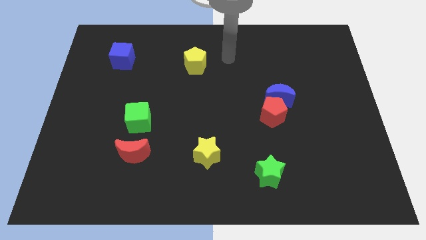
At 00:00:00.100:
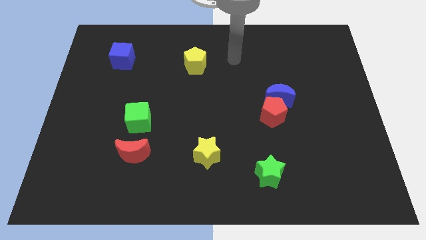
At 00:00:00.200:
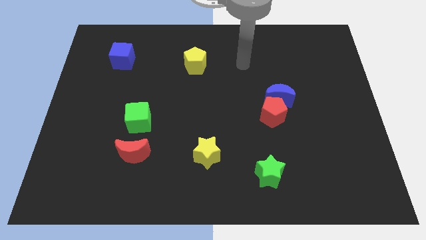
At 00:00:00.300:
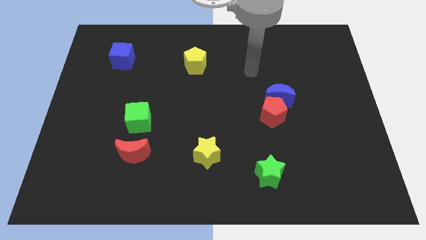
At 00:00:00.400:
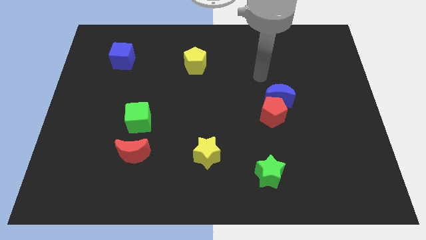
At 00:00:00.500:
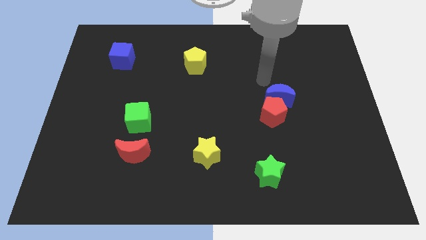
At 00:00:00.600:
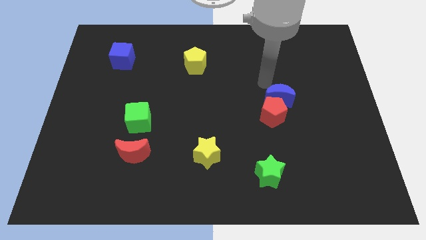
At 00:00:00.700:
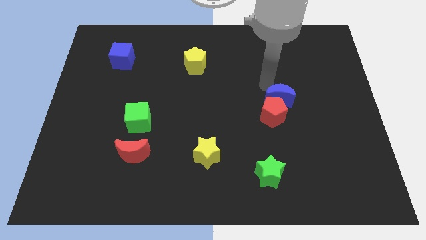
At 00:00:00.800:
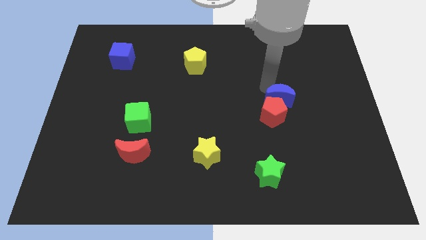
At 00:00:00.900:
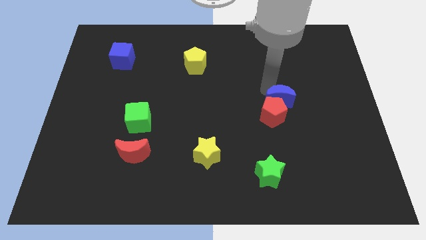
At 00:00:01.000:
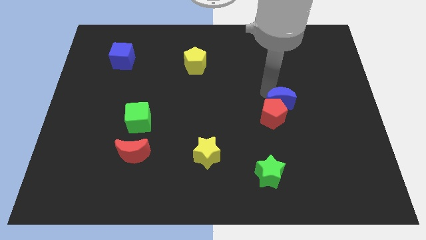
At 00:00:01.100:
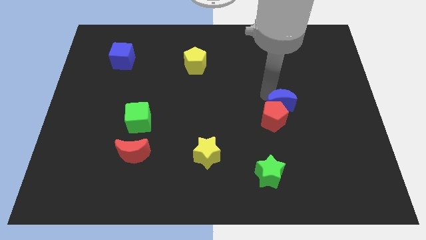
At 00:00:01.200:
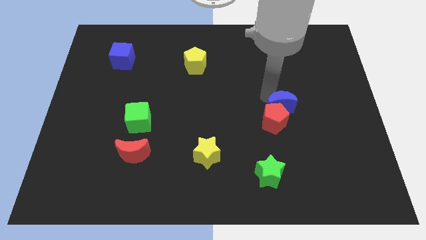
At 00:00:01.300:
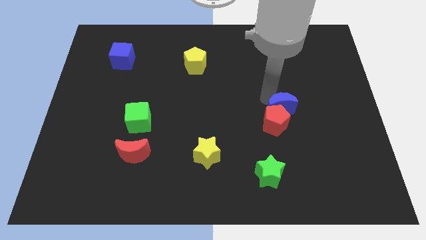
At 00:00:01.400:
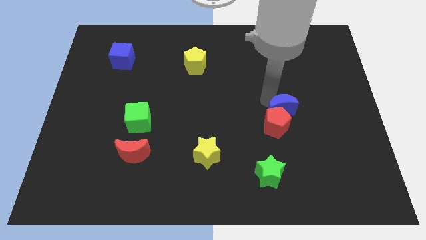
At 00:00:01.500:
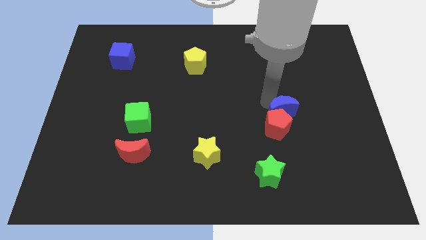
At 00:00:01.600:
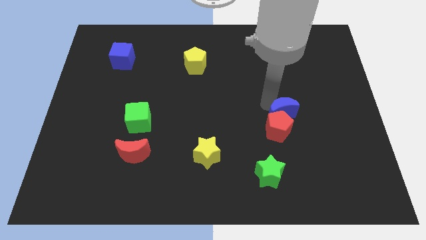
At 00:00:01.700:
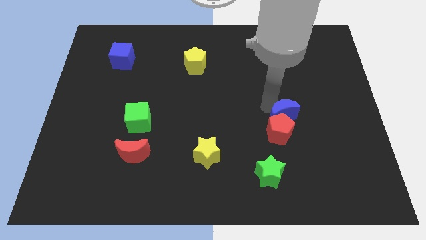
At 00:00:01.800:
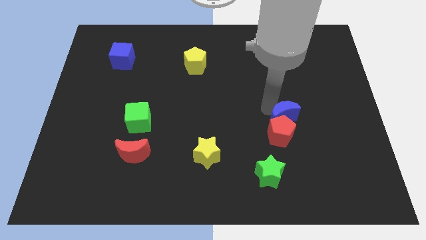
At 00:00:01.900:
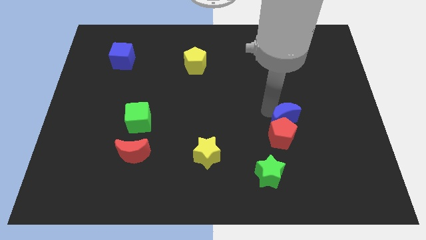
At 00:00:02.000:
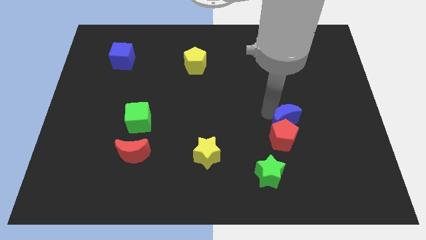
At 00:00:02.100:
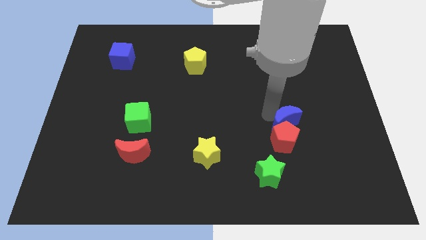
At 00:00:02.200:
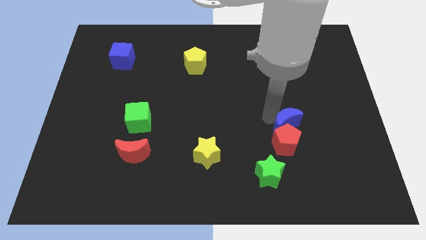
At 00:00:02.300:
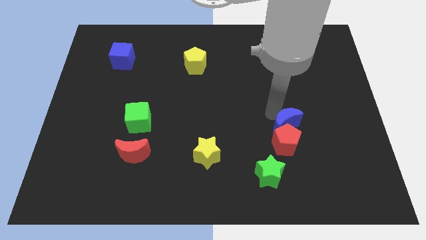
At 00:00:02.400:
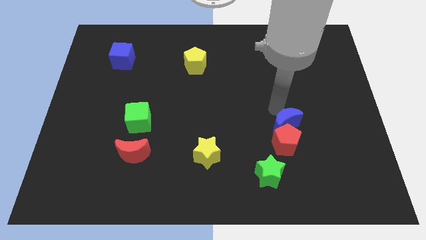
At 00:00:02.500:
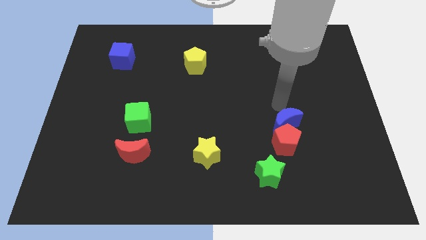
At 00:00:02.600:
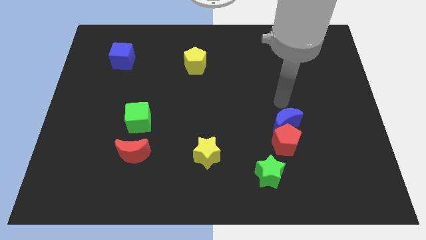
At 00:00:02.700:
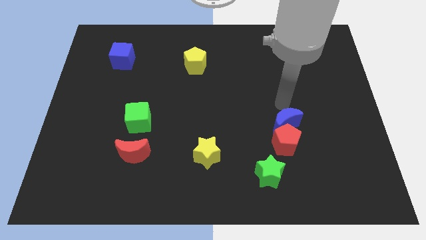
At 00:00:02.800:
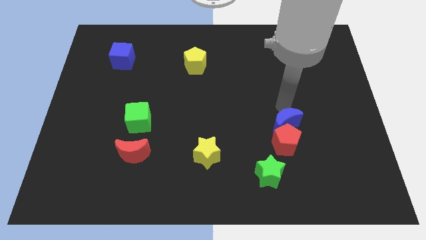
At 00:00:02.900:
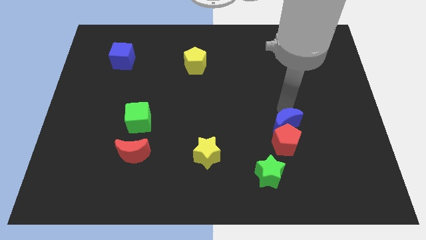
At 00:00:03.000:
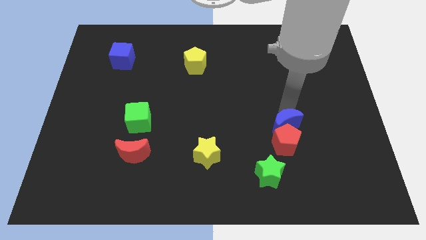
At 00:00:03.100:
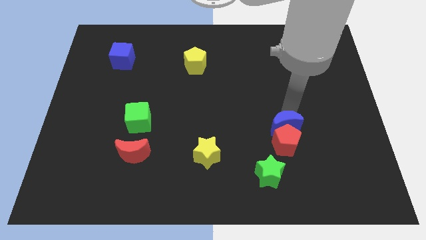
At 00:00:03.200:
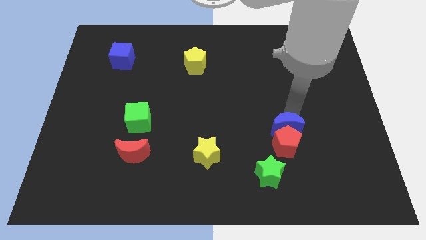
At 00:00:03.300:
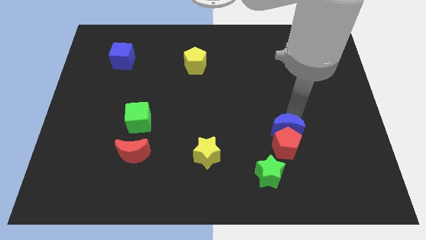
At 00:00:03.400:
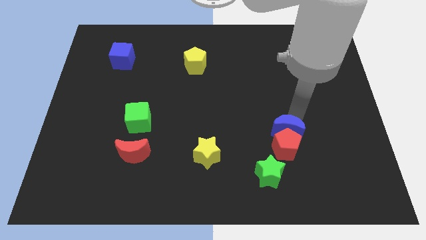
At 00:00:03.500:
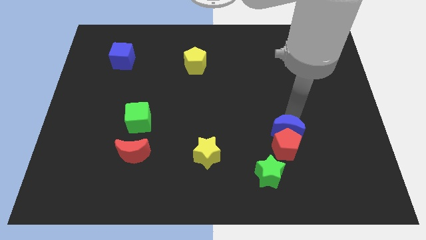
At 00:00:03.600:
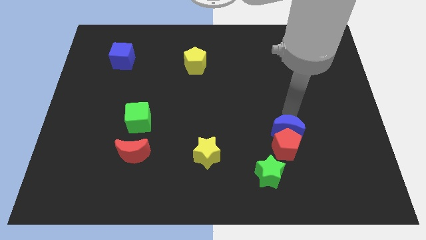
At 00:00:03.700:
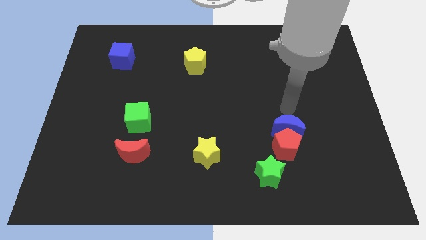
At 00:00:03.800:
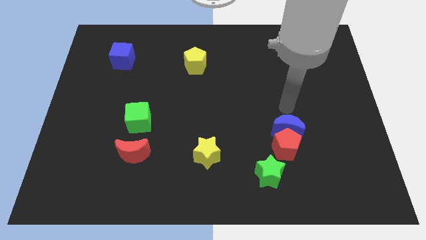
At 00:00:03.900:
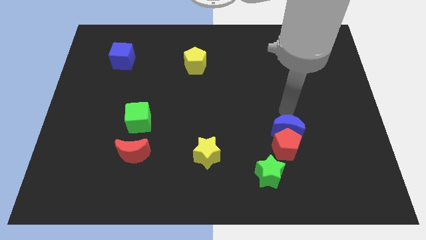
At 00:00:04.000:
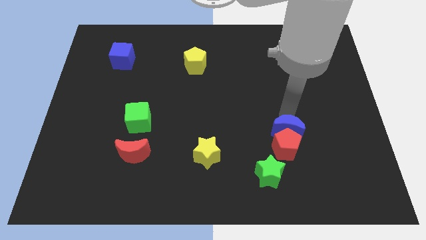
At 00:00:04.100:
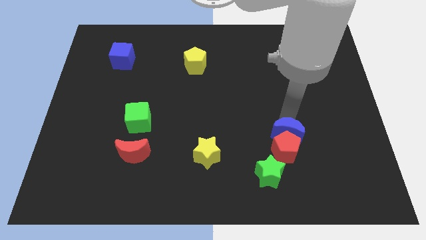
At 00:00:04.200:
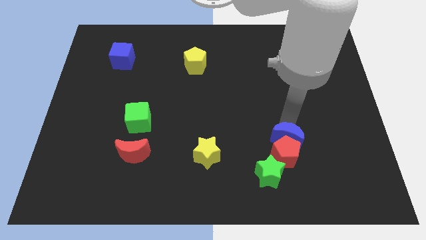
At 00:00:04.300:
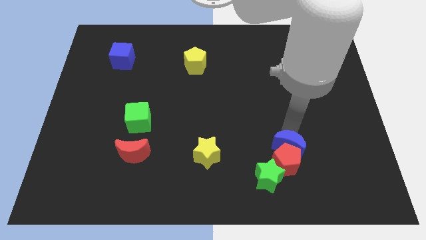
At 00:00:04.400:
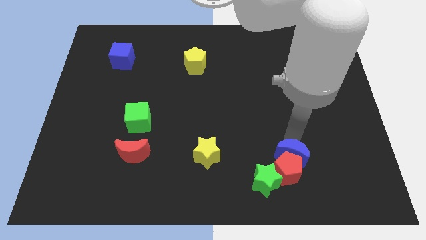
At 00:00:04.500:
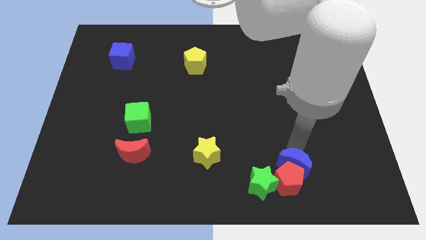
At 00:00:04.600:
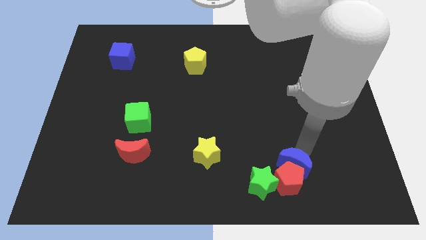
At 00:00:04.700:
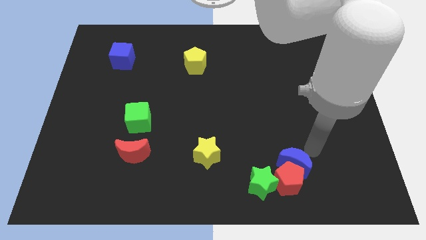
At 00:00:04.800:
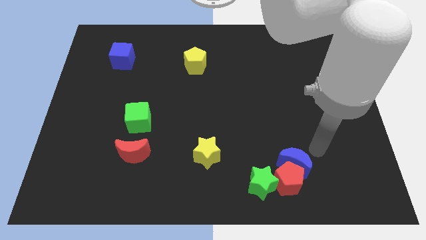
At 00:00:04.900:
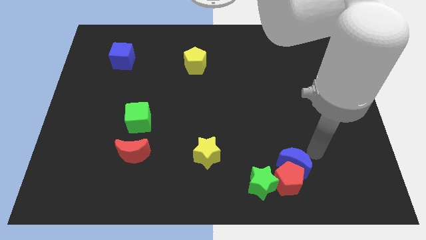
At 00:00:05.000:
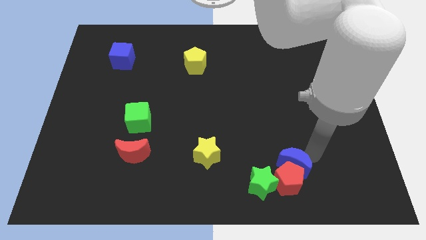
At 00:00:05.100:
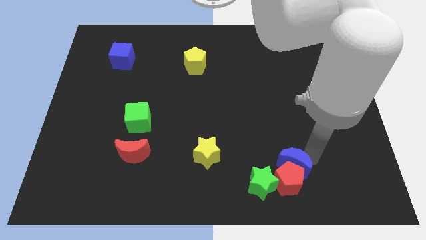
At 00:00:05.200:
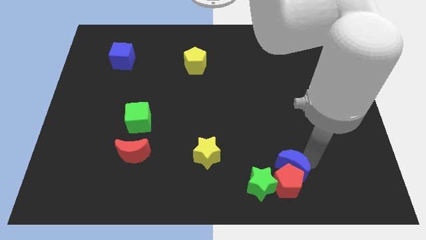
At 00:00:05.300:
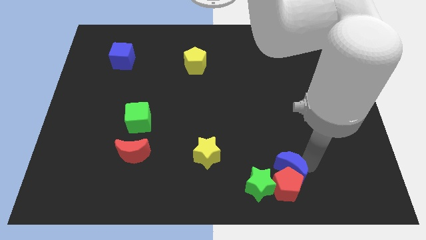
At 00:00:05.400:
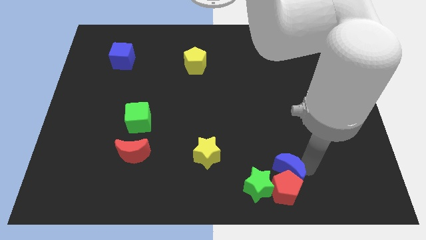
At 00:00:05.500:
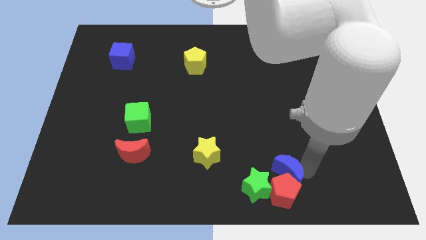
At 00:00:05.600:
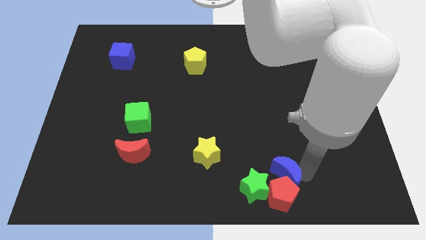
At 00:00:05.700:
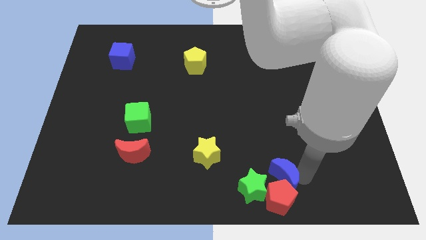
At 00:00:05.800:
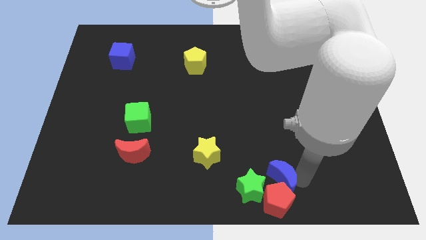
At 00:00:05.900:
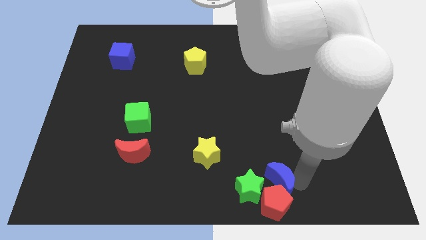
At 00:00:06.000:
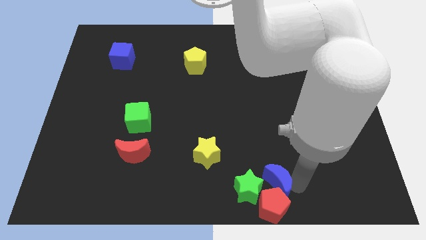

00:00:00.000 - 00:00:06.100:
put the blue moon next to the green star

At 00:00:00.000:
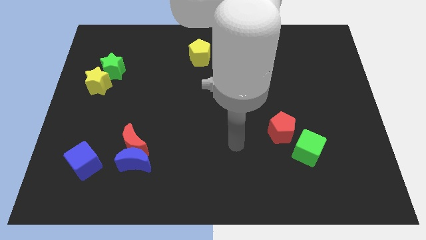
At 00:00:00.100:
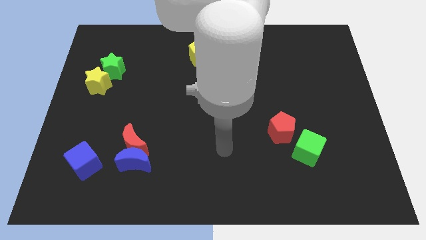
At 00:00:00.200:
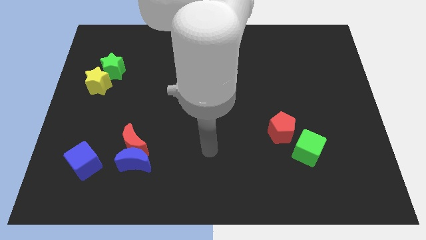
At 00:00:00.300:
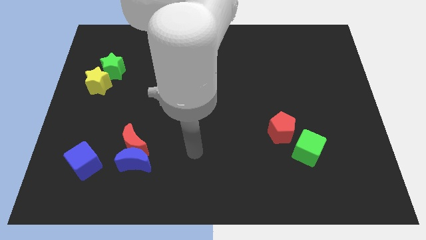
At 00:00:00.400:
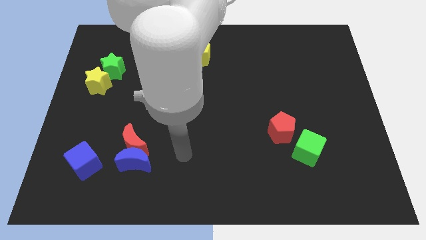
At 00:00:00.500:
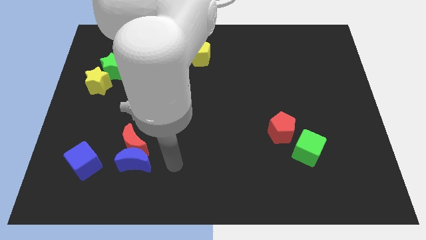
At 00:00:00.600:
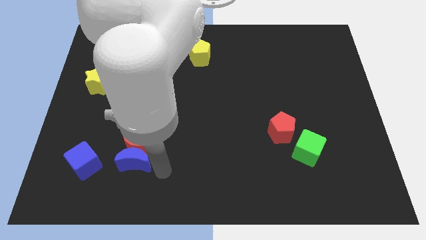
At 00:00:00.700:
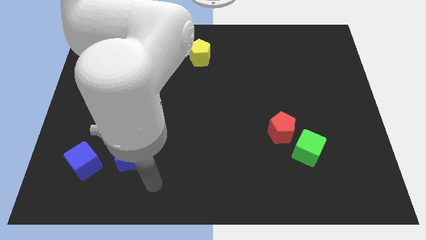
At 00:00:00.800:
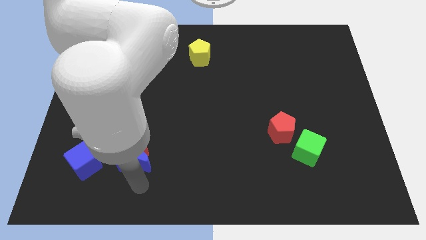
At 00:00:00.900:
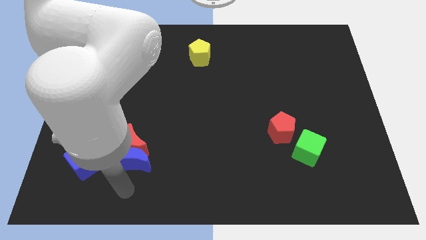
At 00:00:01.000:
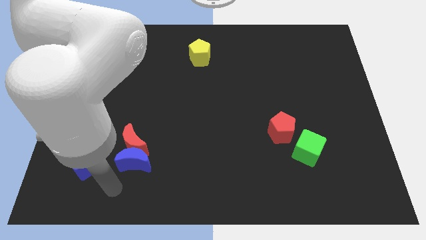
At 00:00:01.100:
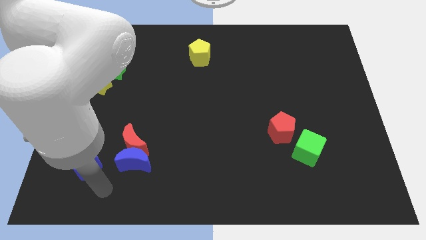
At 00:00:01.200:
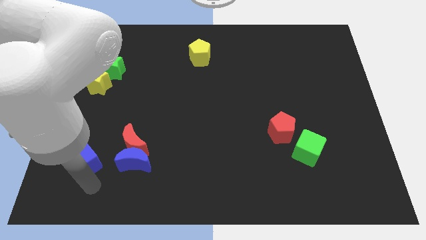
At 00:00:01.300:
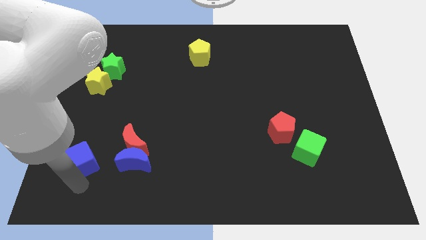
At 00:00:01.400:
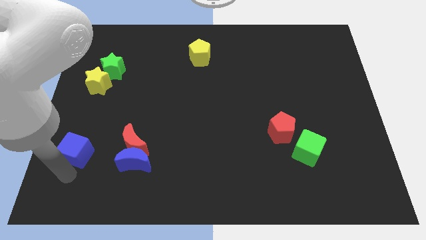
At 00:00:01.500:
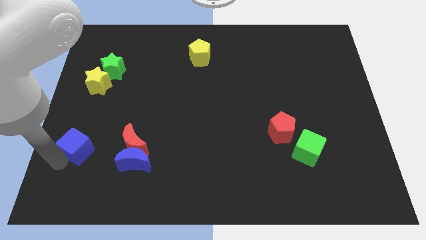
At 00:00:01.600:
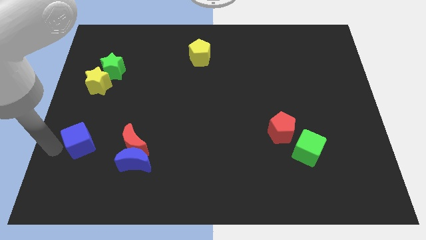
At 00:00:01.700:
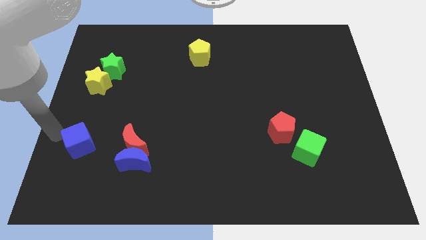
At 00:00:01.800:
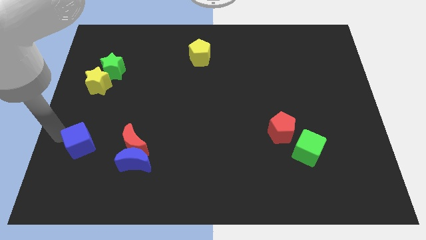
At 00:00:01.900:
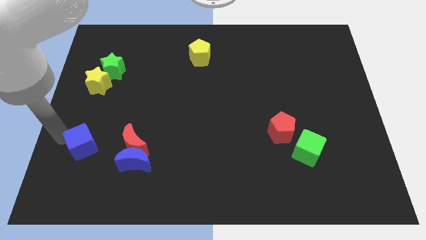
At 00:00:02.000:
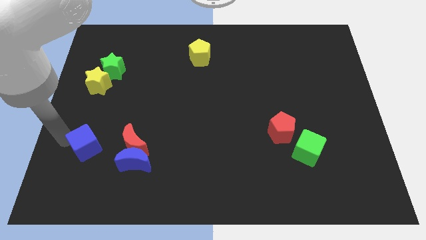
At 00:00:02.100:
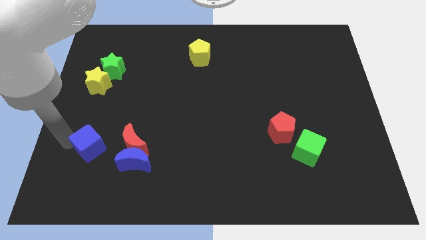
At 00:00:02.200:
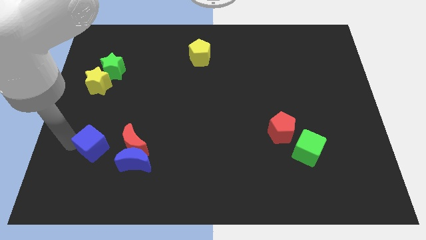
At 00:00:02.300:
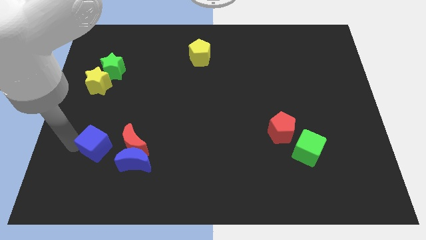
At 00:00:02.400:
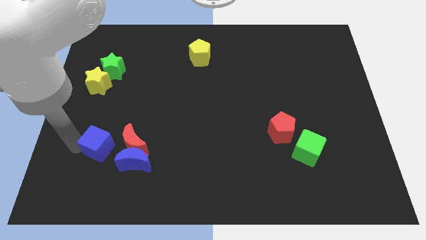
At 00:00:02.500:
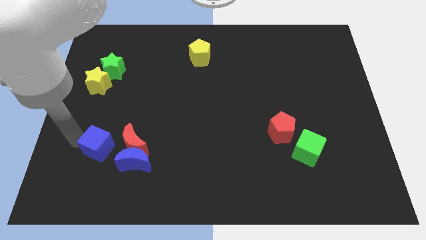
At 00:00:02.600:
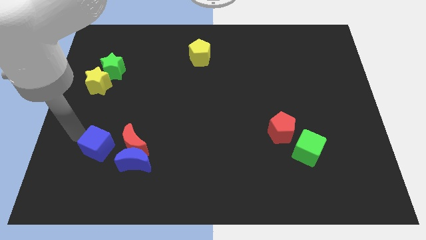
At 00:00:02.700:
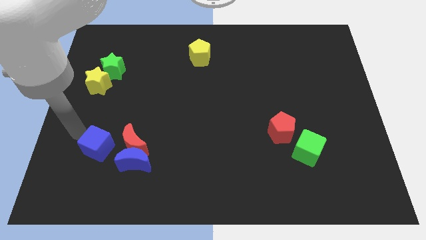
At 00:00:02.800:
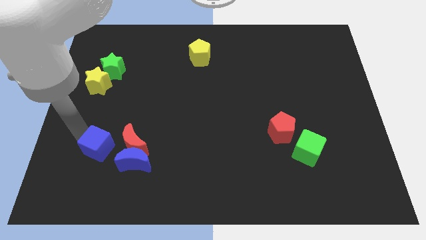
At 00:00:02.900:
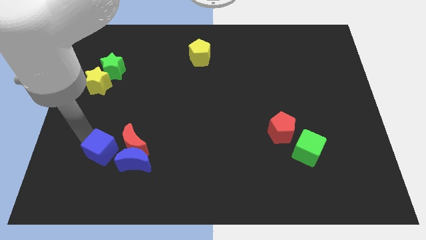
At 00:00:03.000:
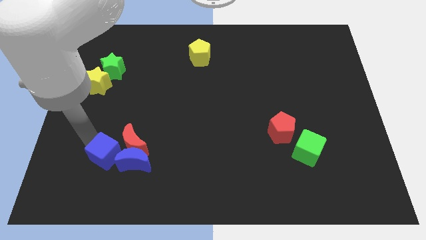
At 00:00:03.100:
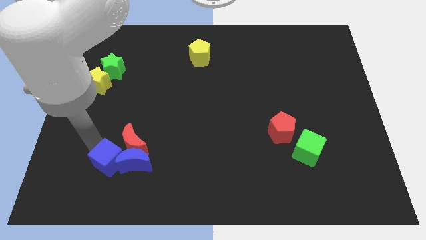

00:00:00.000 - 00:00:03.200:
put the blue cube close to the blue moon
